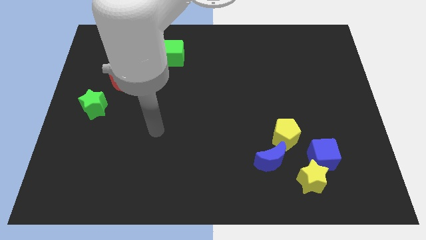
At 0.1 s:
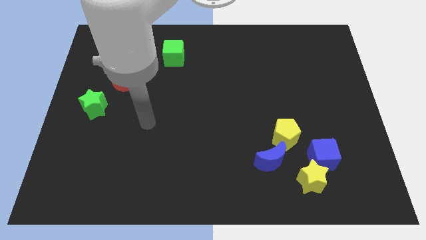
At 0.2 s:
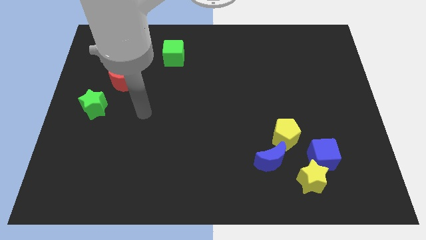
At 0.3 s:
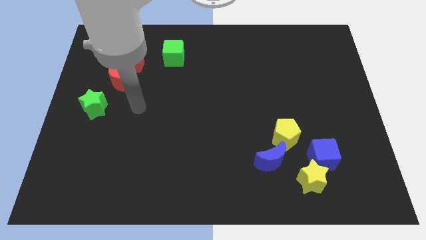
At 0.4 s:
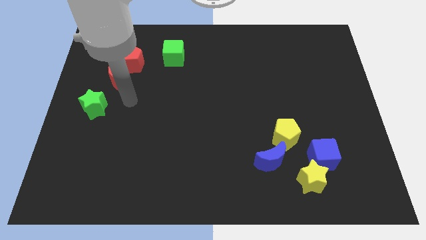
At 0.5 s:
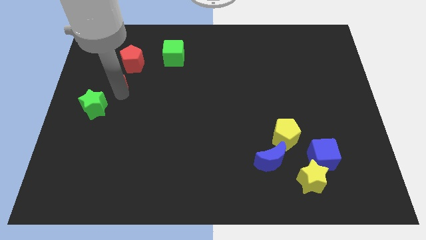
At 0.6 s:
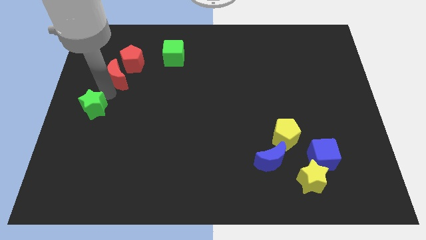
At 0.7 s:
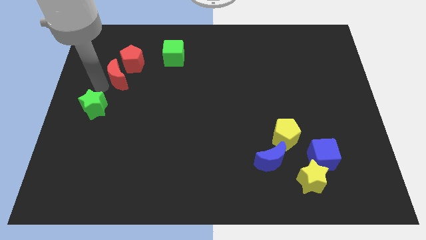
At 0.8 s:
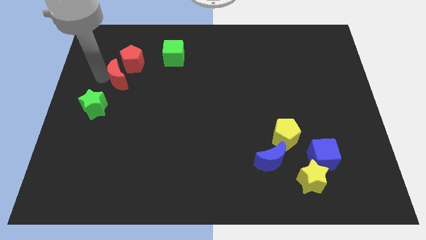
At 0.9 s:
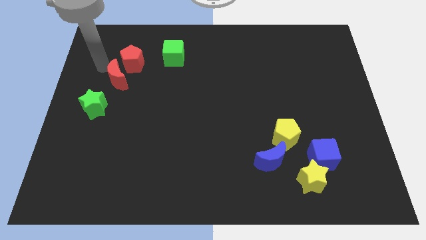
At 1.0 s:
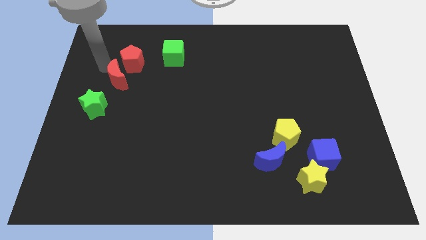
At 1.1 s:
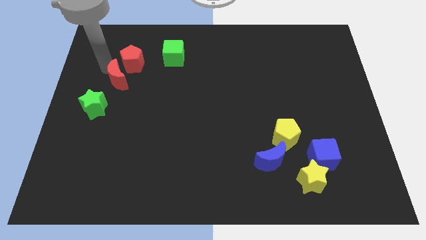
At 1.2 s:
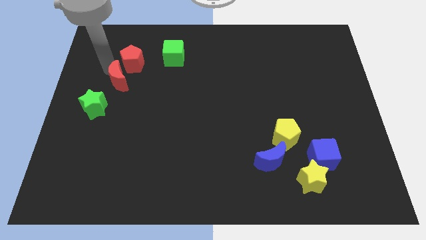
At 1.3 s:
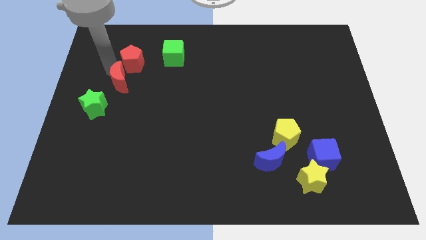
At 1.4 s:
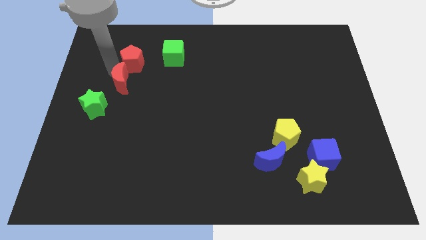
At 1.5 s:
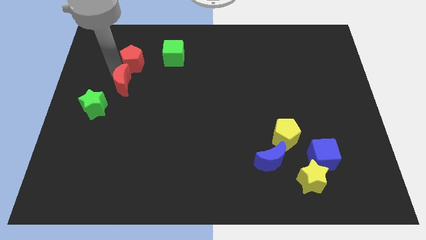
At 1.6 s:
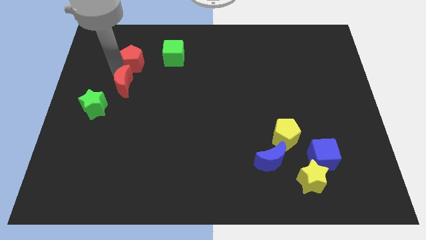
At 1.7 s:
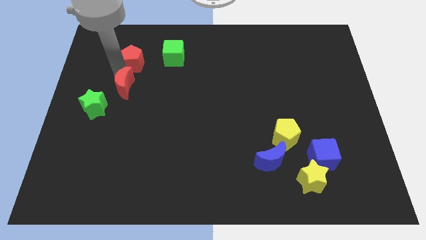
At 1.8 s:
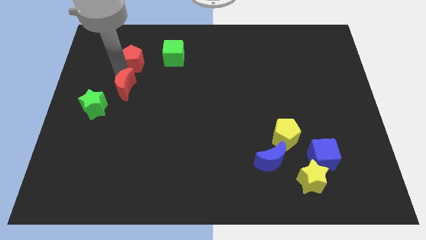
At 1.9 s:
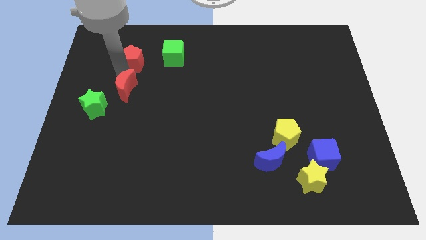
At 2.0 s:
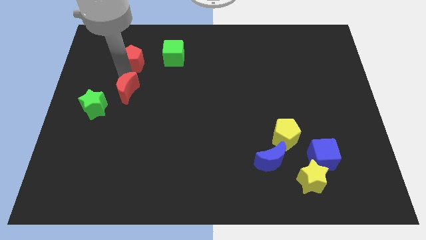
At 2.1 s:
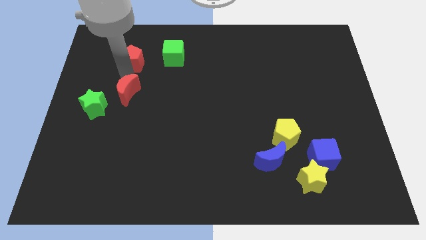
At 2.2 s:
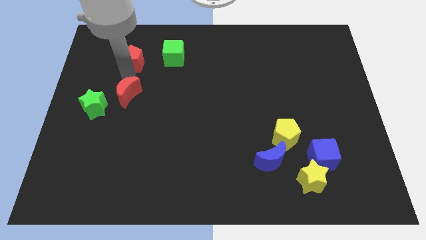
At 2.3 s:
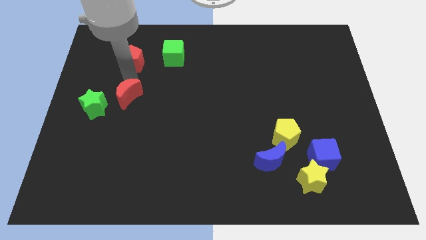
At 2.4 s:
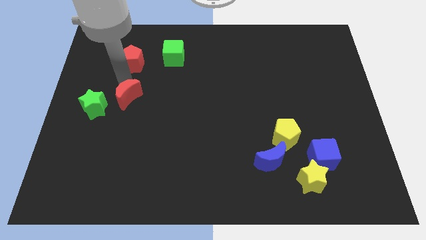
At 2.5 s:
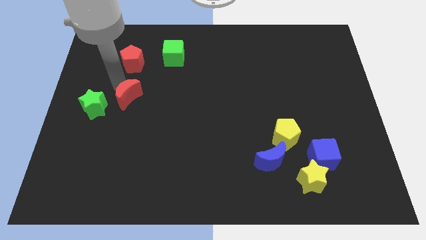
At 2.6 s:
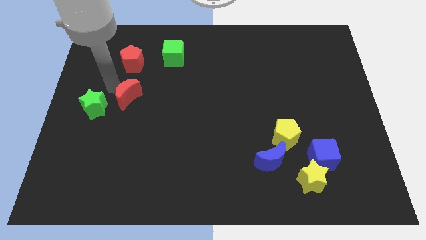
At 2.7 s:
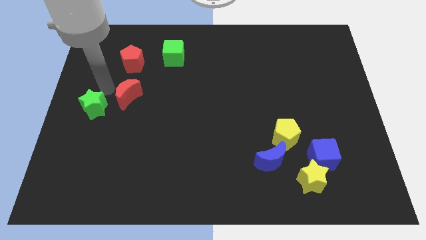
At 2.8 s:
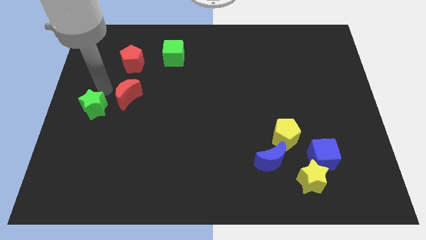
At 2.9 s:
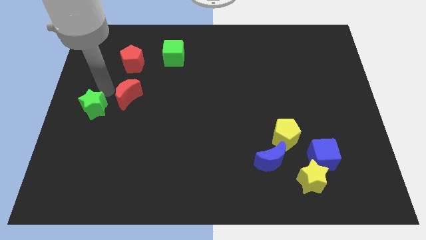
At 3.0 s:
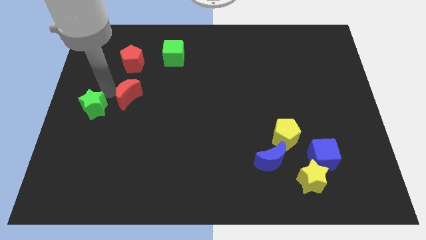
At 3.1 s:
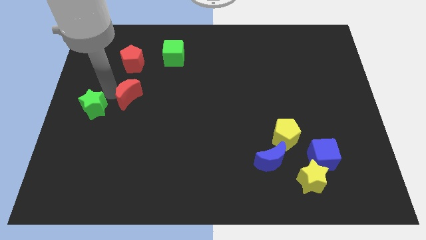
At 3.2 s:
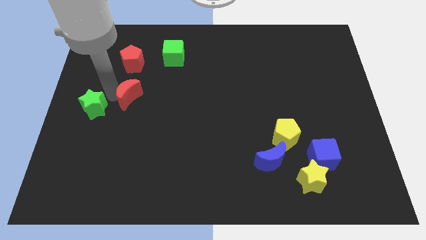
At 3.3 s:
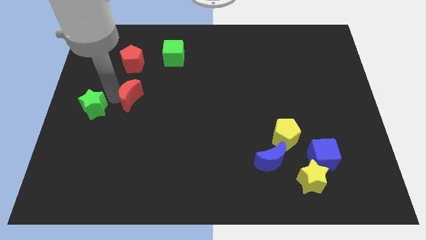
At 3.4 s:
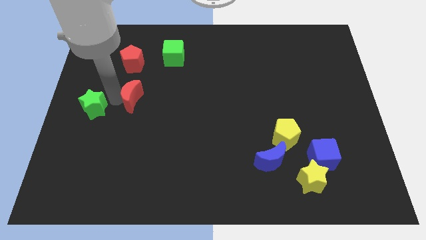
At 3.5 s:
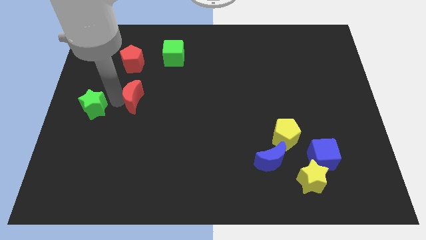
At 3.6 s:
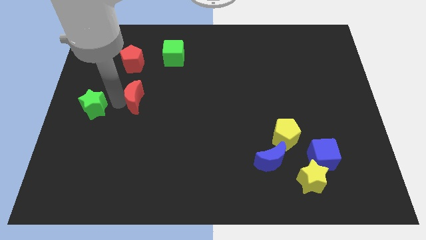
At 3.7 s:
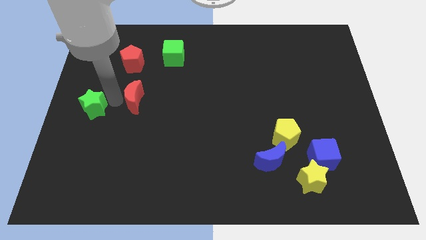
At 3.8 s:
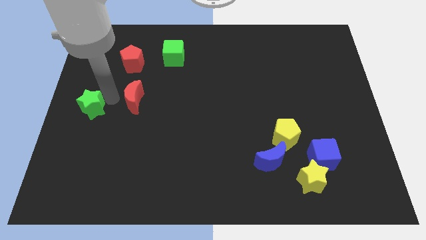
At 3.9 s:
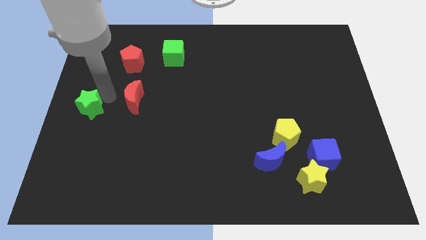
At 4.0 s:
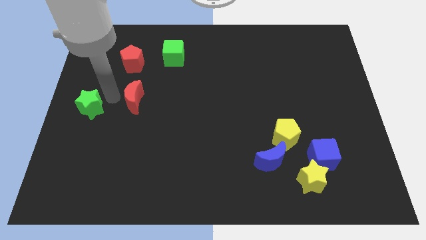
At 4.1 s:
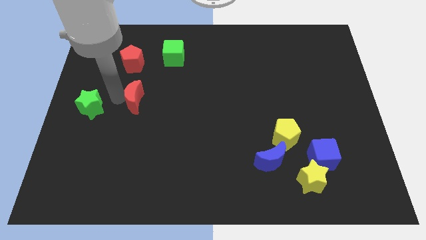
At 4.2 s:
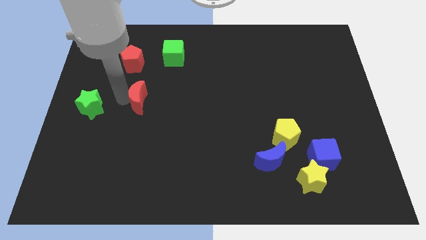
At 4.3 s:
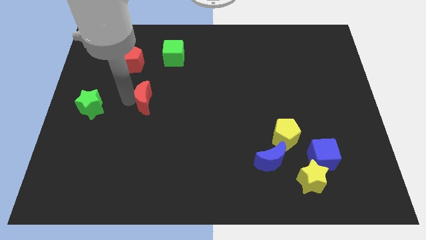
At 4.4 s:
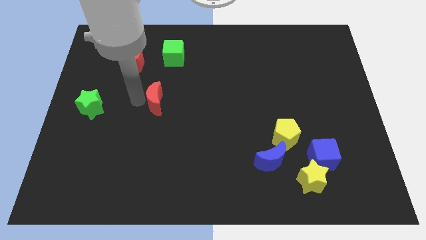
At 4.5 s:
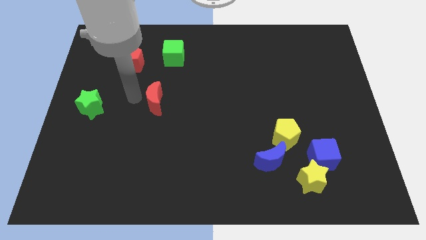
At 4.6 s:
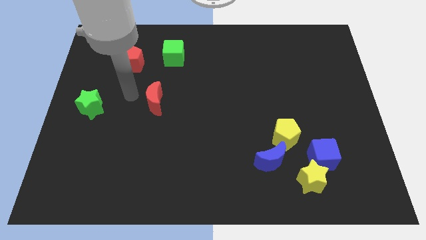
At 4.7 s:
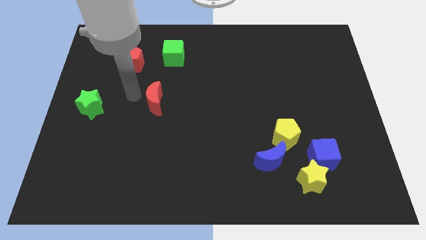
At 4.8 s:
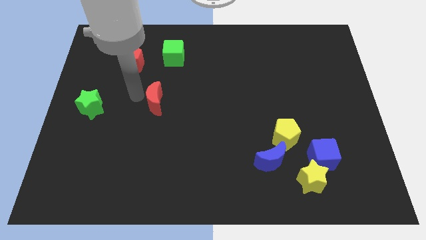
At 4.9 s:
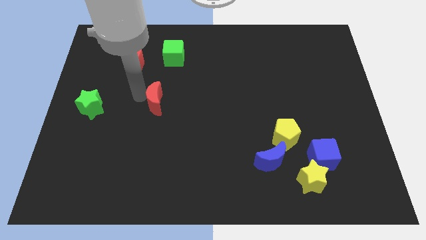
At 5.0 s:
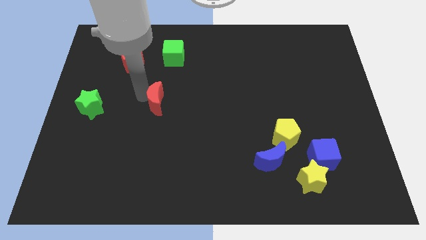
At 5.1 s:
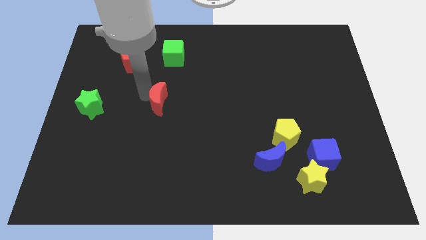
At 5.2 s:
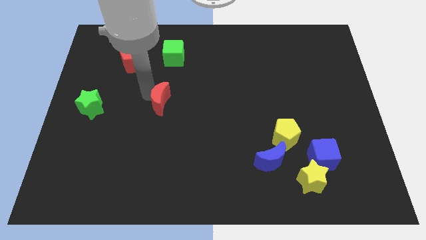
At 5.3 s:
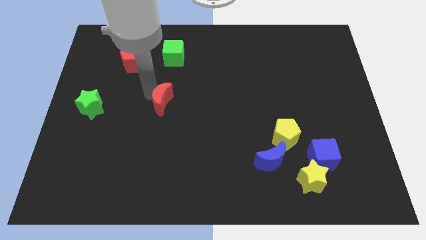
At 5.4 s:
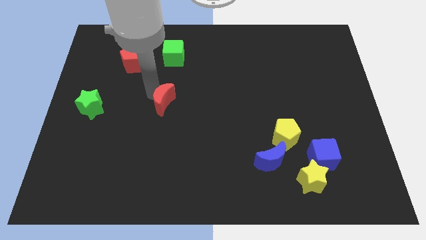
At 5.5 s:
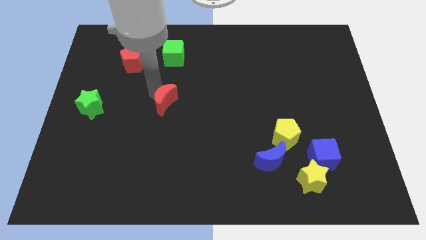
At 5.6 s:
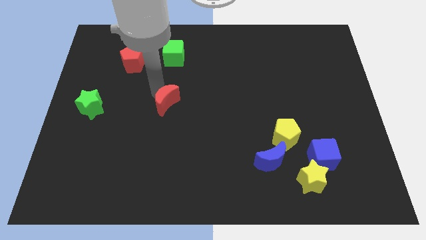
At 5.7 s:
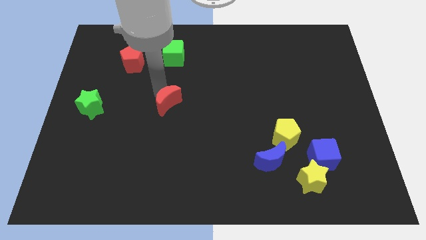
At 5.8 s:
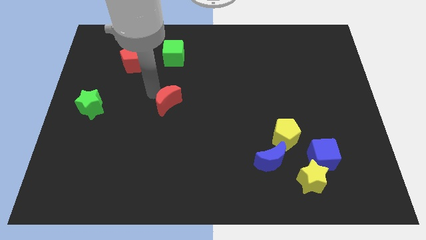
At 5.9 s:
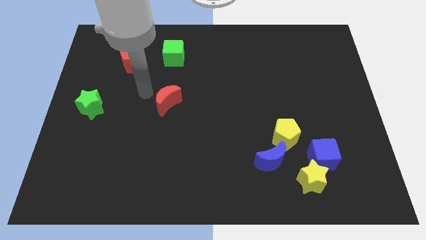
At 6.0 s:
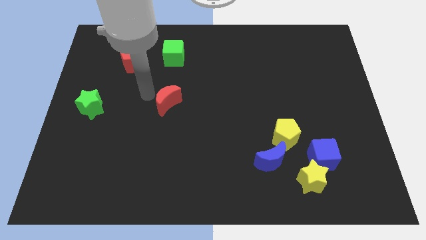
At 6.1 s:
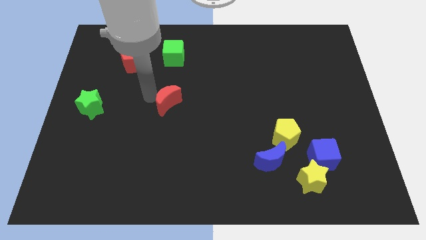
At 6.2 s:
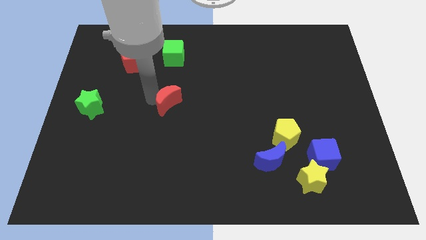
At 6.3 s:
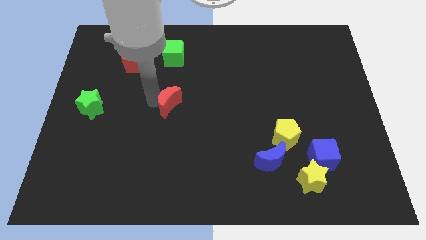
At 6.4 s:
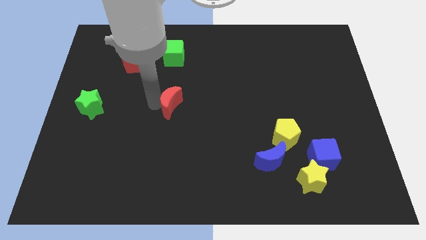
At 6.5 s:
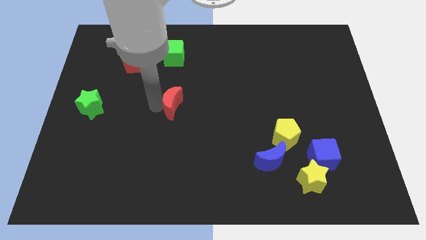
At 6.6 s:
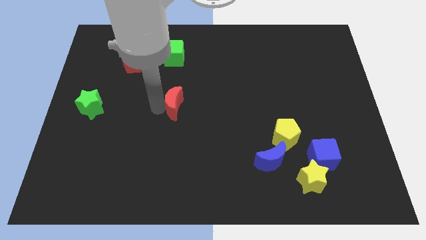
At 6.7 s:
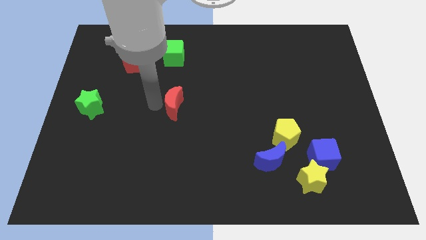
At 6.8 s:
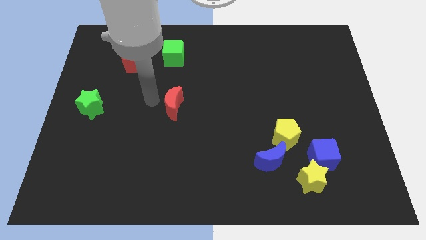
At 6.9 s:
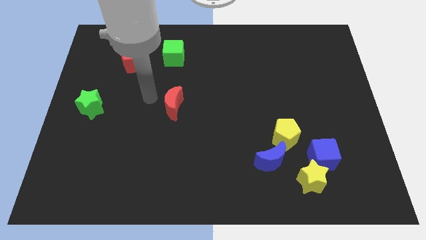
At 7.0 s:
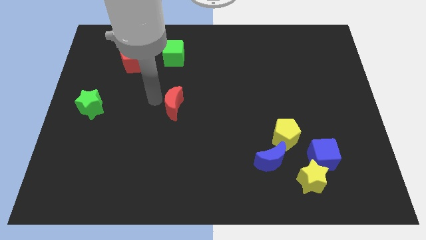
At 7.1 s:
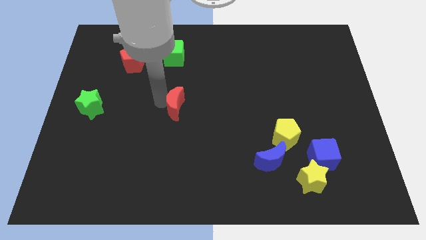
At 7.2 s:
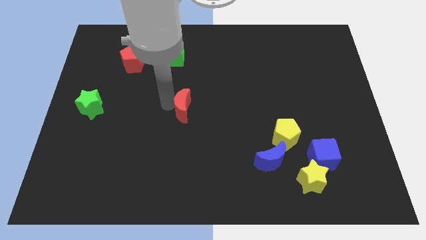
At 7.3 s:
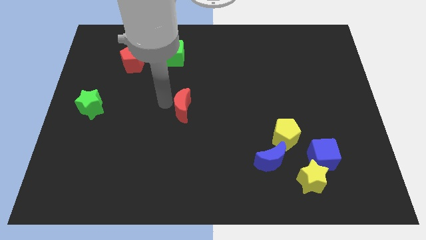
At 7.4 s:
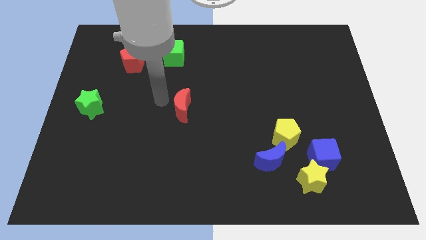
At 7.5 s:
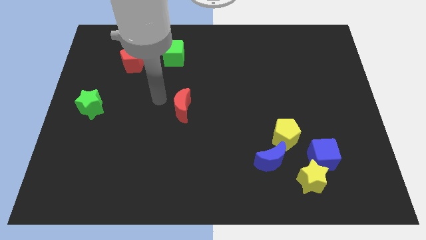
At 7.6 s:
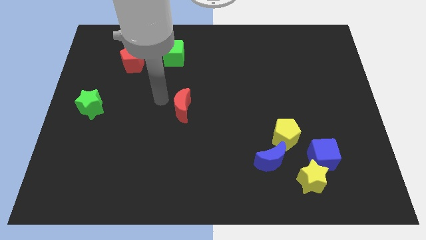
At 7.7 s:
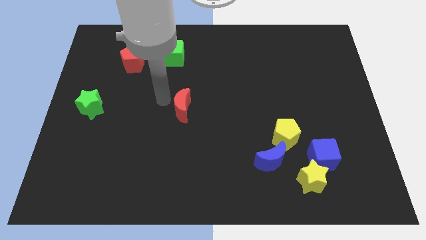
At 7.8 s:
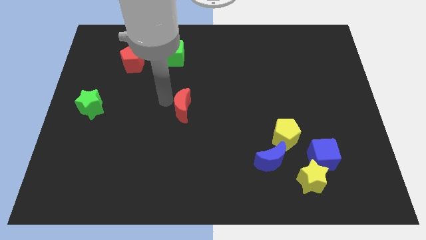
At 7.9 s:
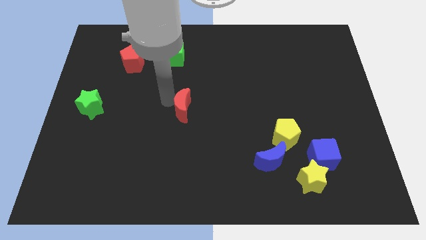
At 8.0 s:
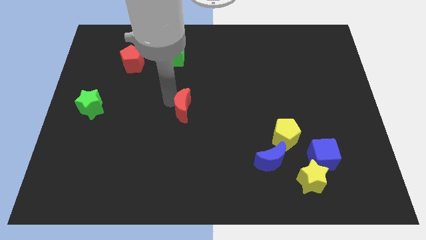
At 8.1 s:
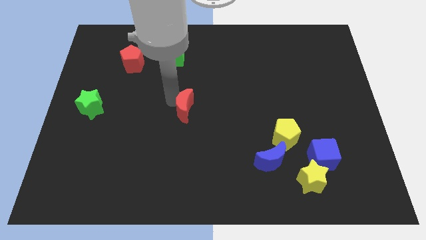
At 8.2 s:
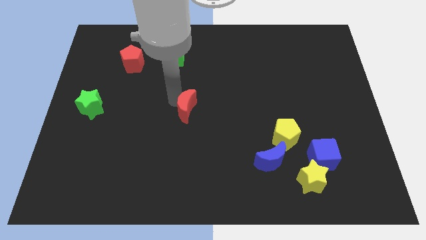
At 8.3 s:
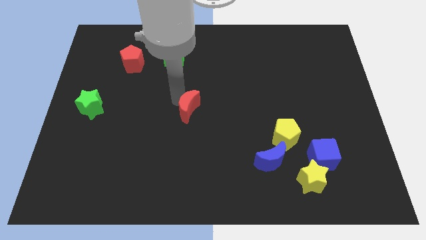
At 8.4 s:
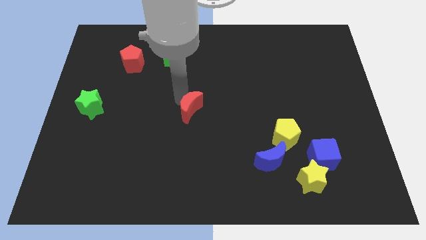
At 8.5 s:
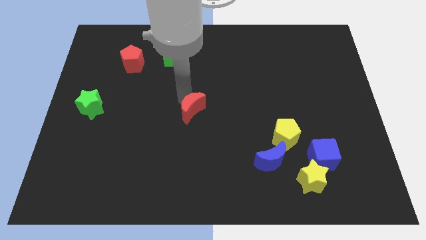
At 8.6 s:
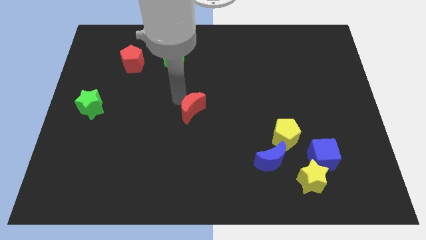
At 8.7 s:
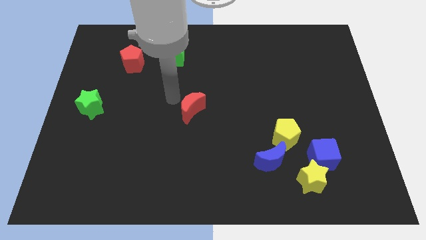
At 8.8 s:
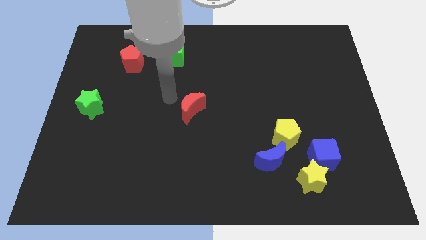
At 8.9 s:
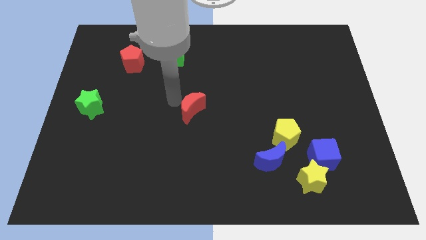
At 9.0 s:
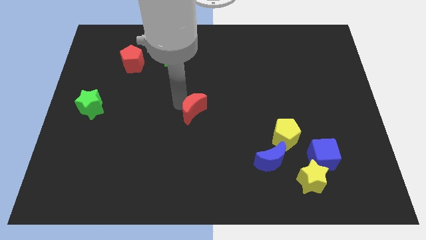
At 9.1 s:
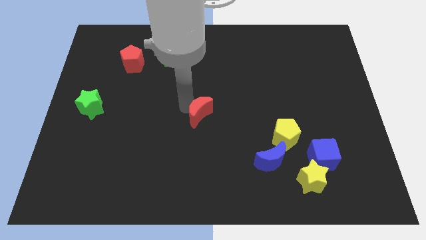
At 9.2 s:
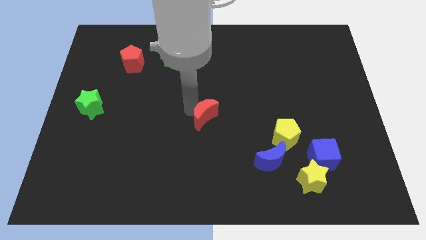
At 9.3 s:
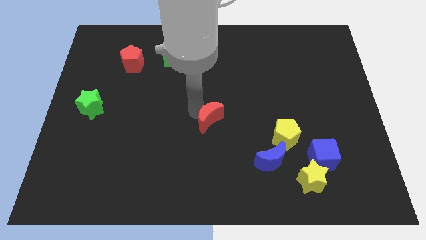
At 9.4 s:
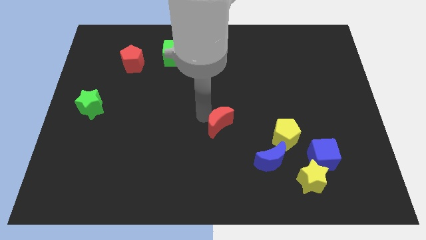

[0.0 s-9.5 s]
push the red moon left of the yellow pentagon
